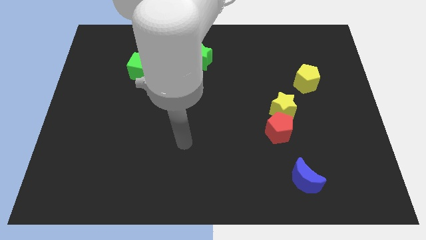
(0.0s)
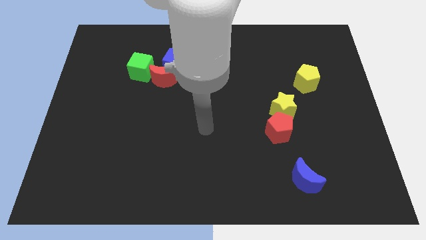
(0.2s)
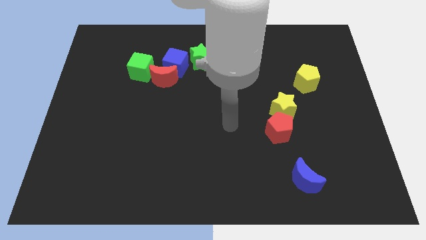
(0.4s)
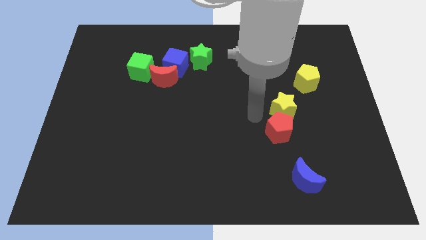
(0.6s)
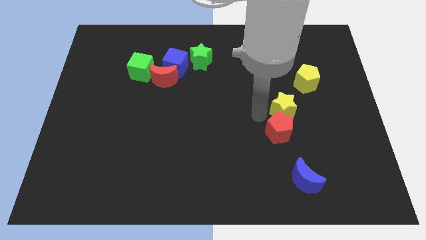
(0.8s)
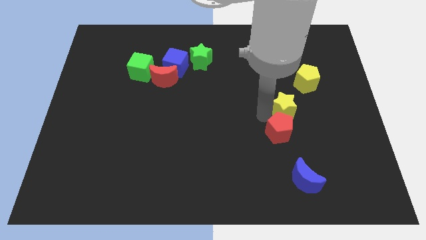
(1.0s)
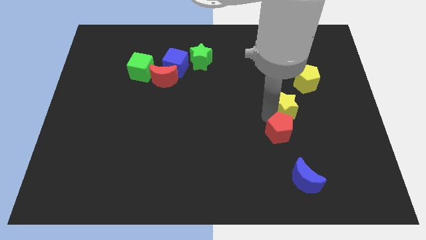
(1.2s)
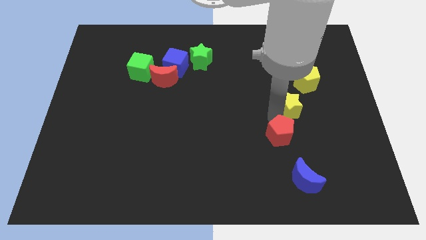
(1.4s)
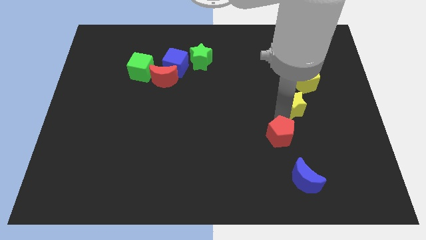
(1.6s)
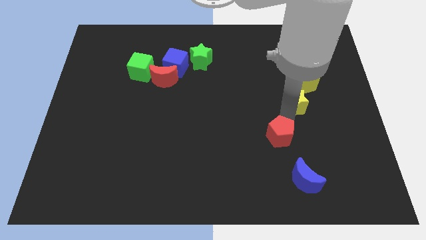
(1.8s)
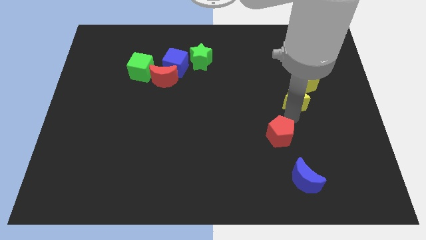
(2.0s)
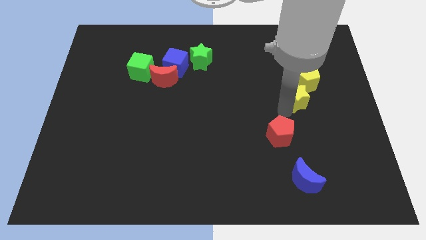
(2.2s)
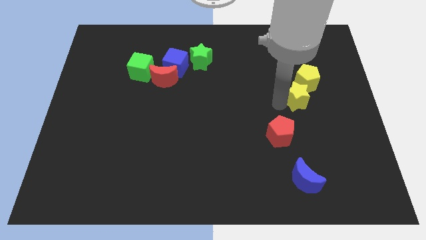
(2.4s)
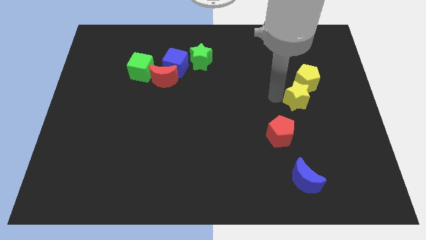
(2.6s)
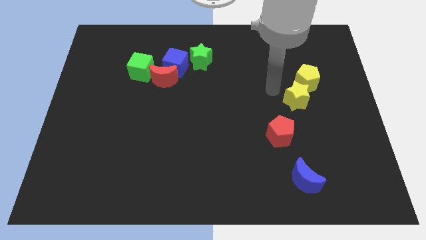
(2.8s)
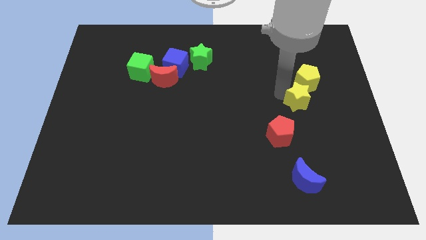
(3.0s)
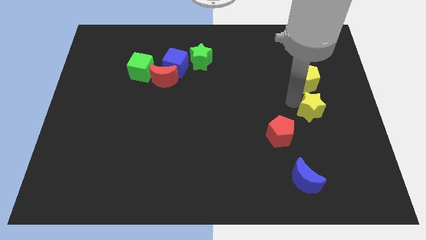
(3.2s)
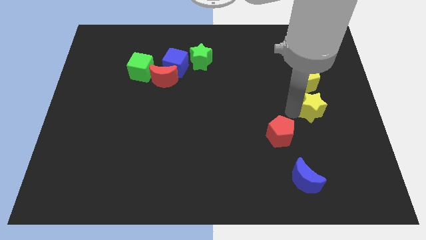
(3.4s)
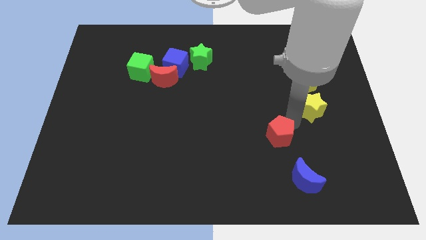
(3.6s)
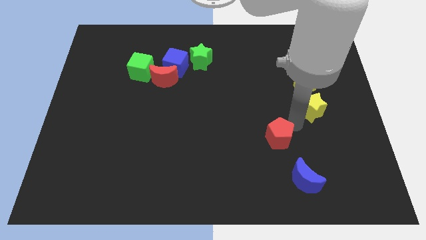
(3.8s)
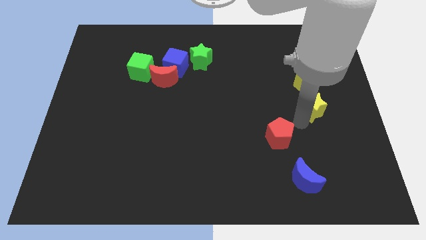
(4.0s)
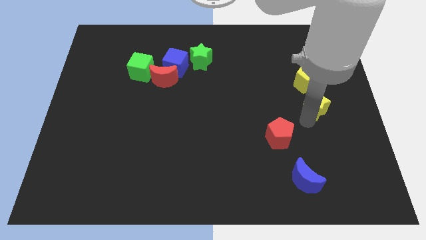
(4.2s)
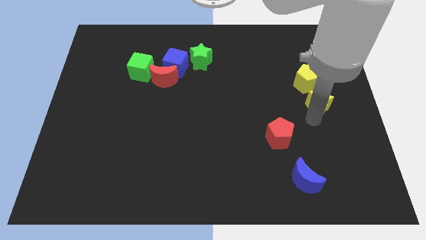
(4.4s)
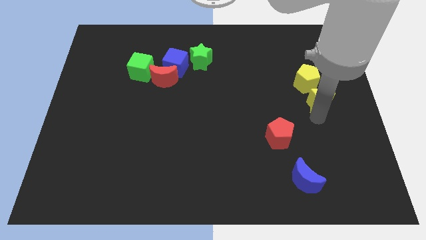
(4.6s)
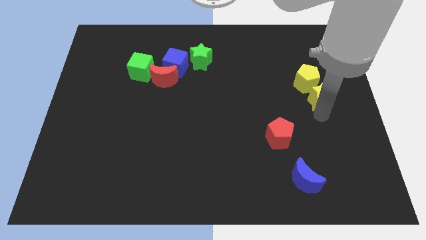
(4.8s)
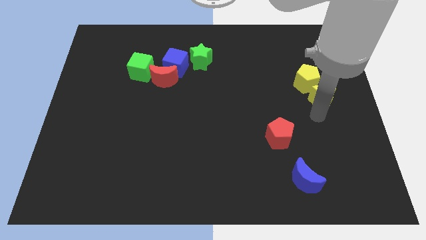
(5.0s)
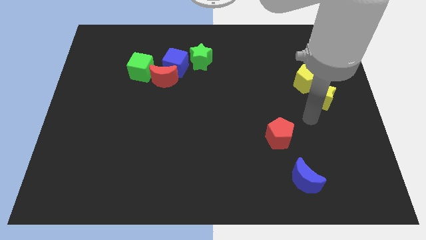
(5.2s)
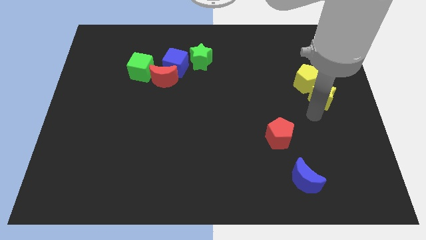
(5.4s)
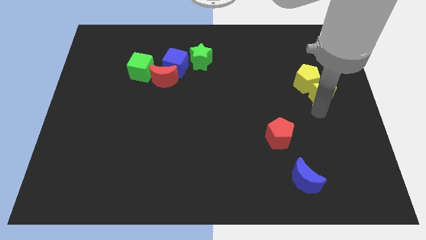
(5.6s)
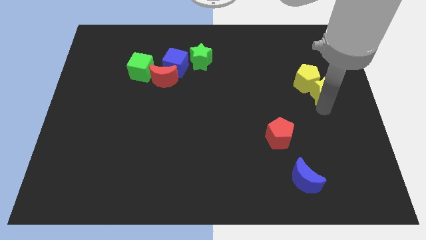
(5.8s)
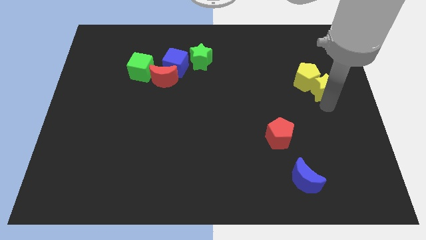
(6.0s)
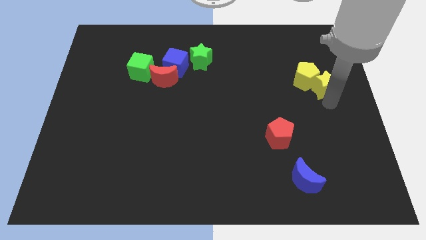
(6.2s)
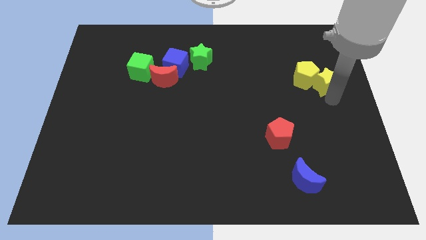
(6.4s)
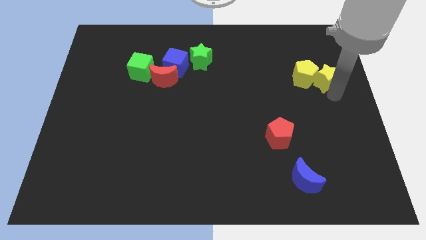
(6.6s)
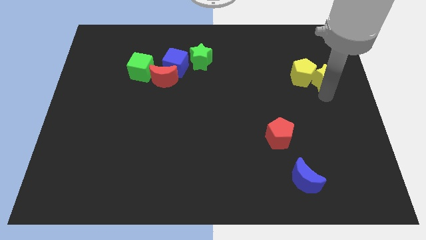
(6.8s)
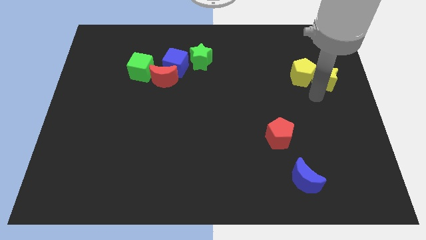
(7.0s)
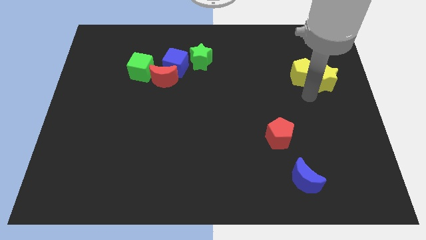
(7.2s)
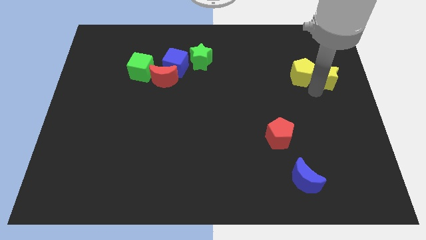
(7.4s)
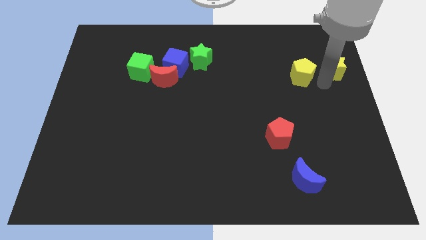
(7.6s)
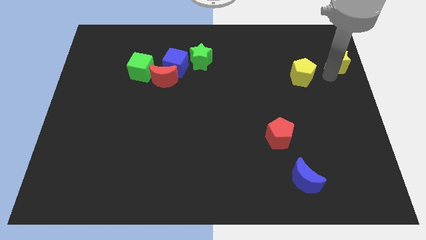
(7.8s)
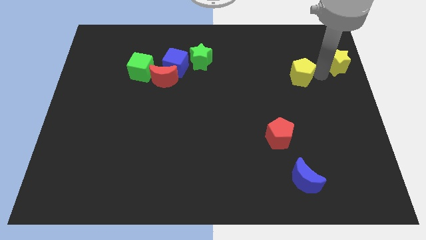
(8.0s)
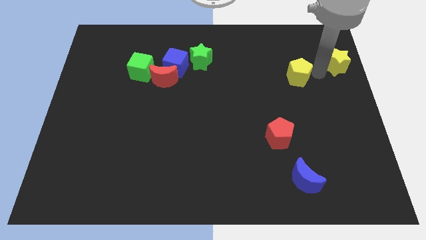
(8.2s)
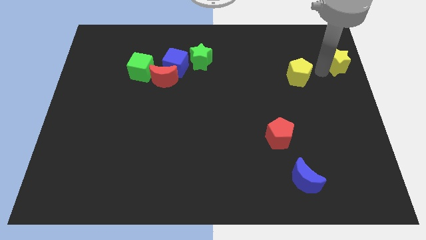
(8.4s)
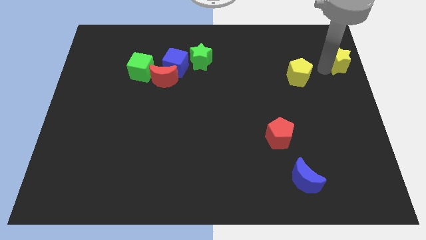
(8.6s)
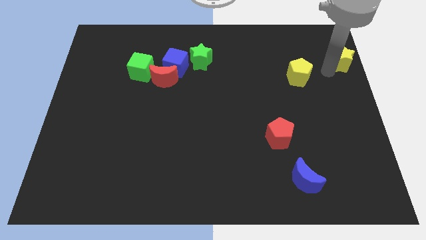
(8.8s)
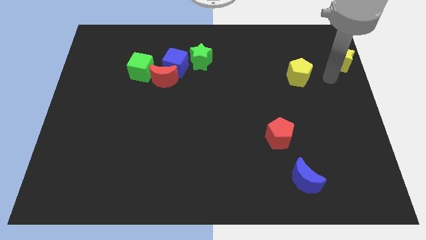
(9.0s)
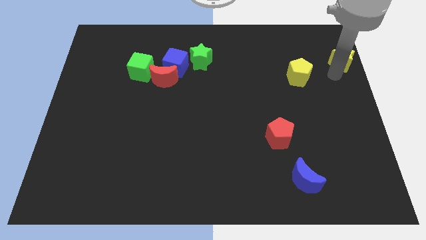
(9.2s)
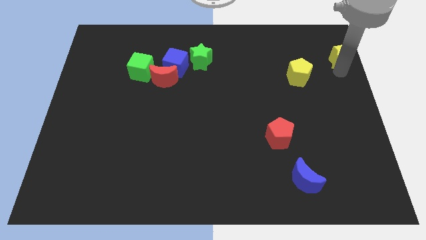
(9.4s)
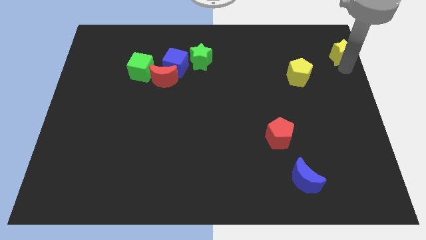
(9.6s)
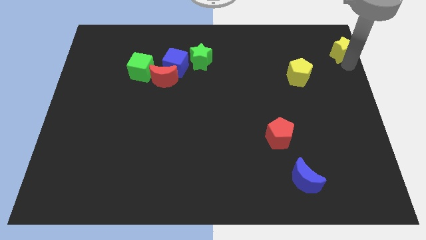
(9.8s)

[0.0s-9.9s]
push the yellow star to the upper right corner
